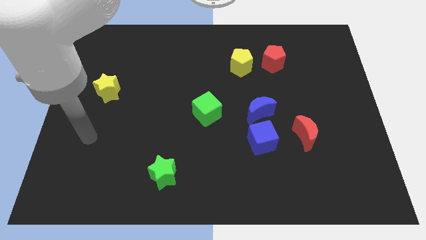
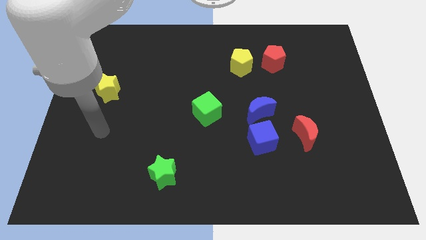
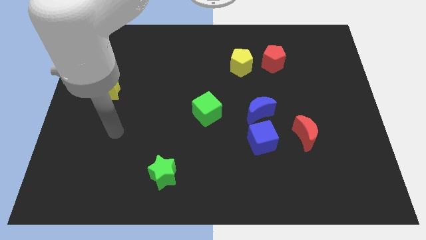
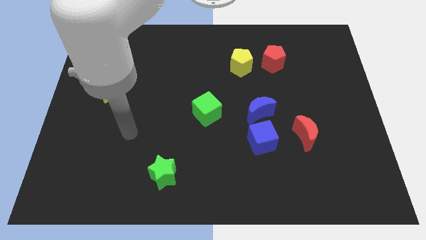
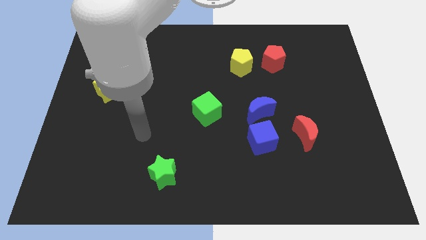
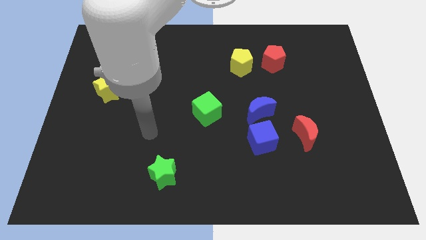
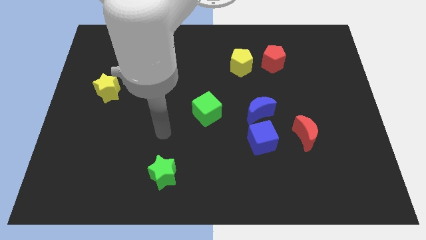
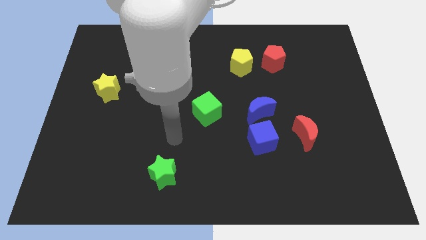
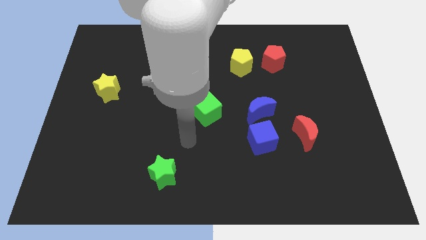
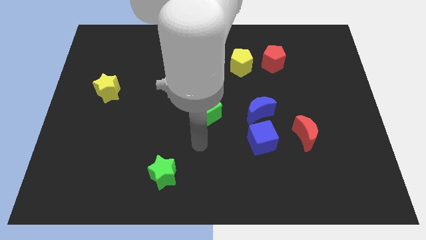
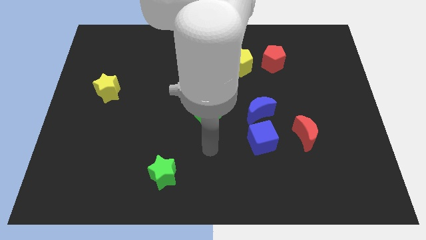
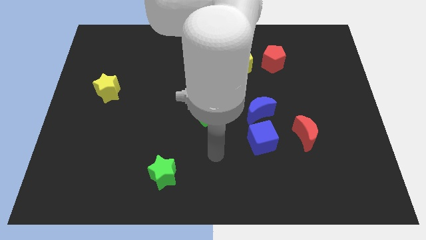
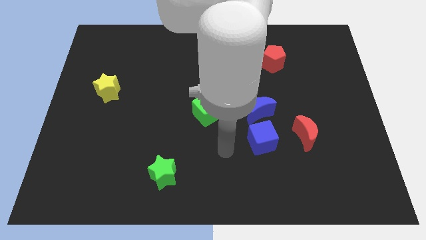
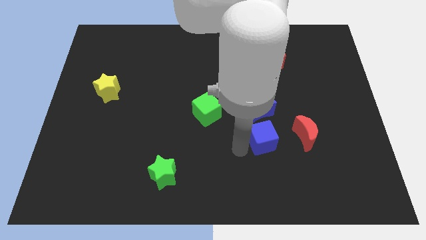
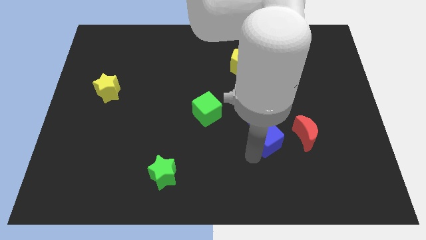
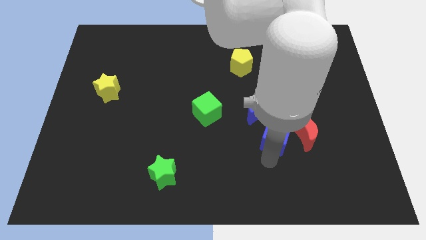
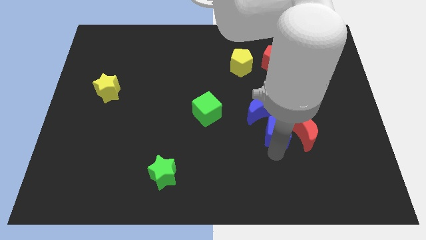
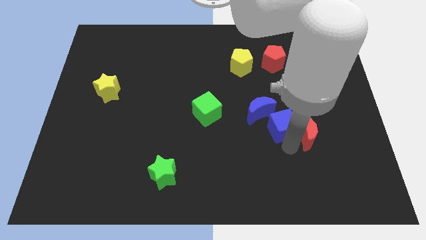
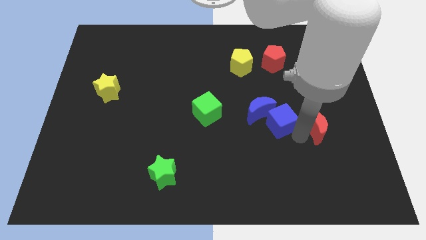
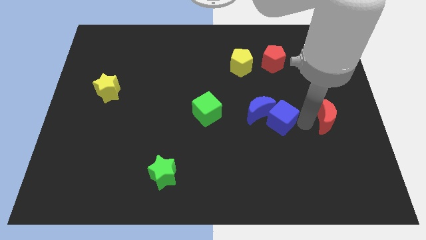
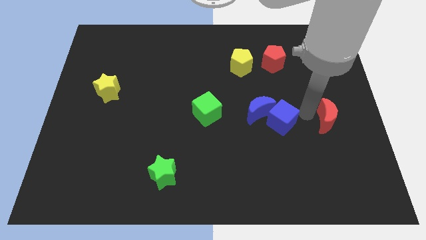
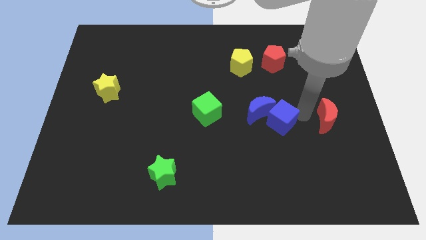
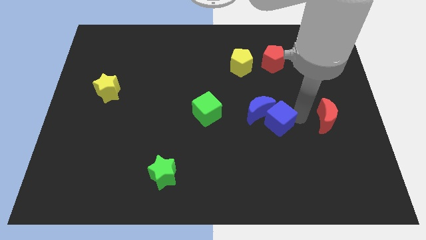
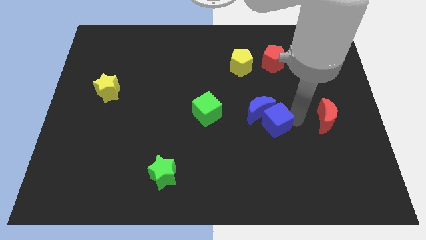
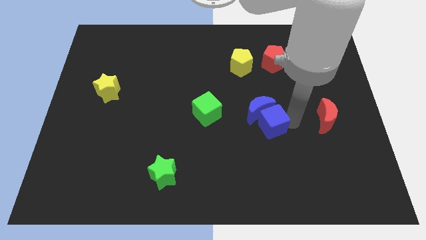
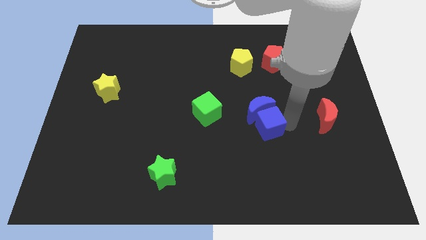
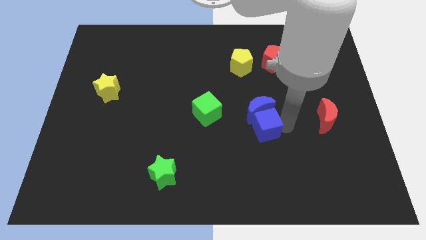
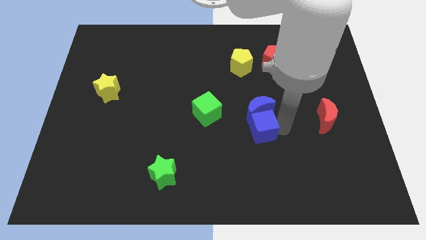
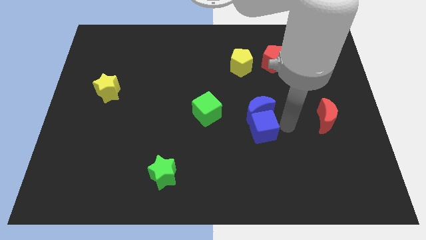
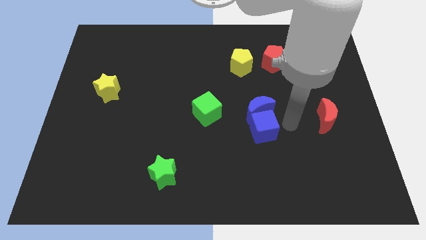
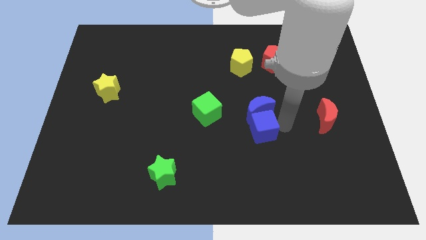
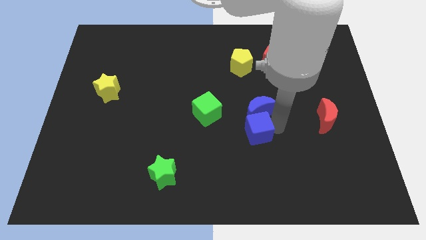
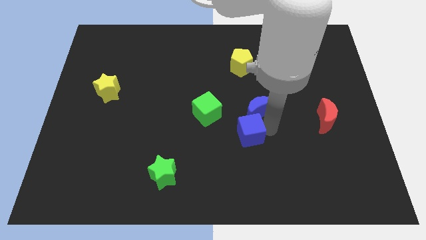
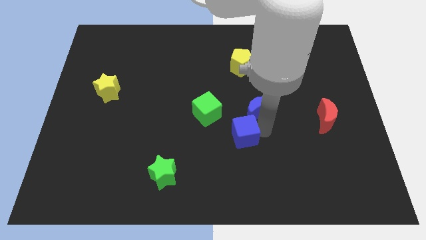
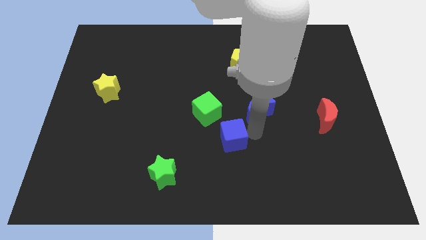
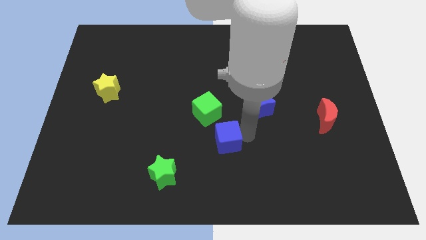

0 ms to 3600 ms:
slightly move the blue cube left

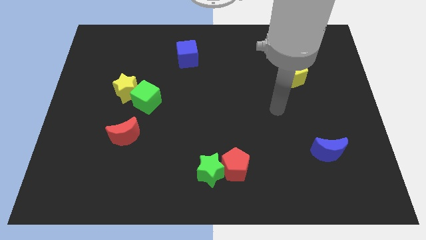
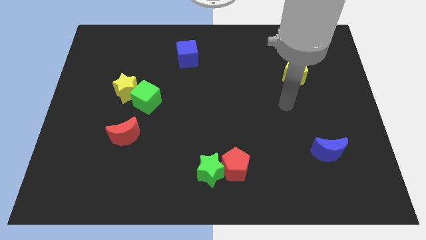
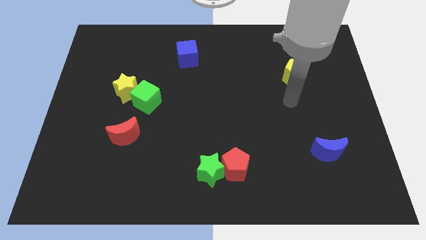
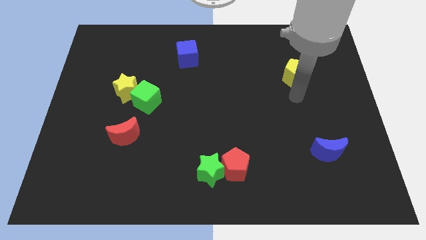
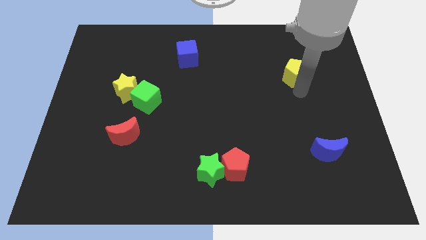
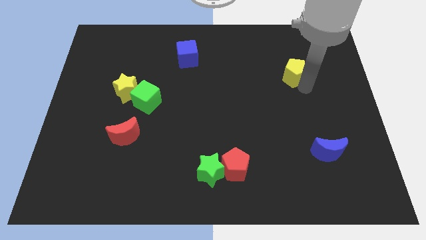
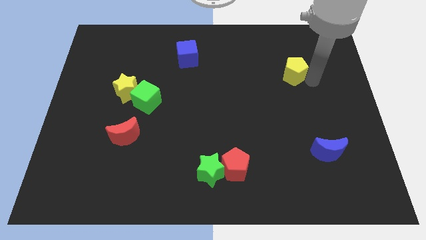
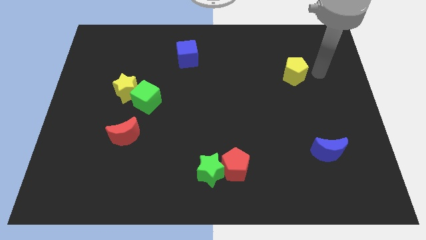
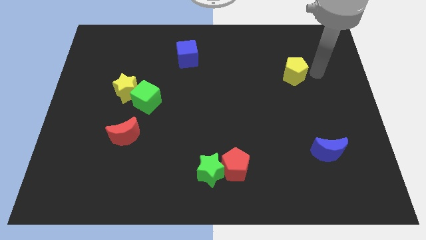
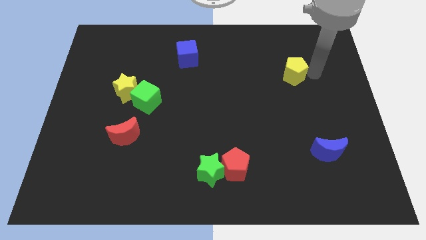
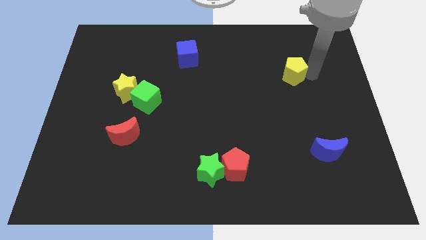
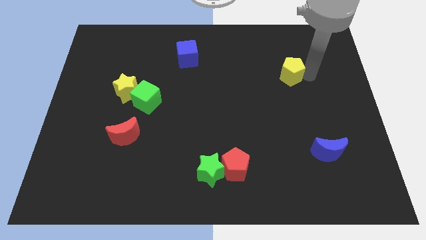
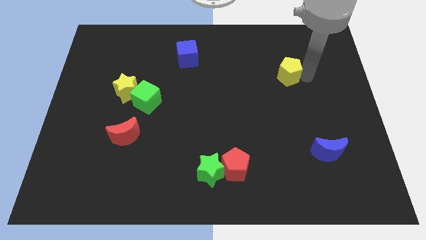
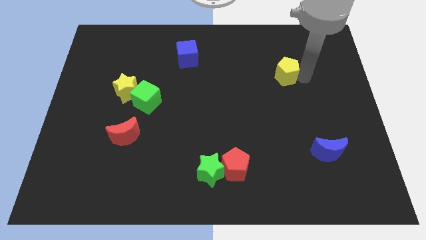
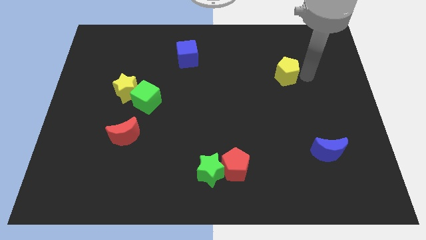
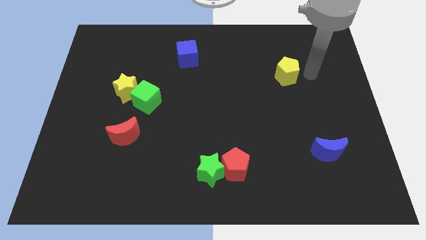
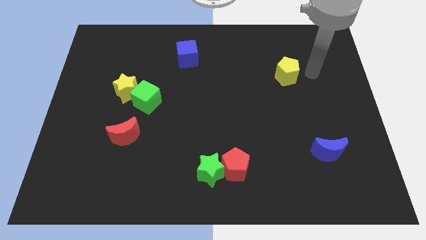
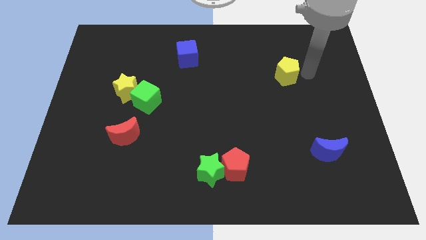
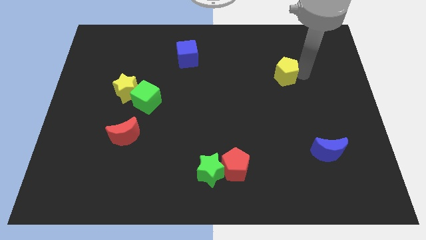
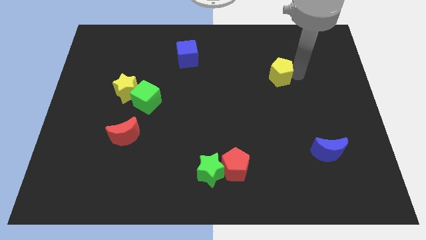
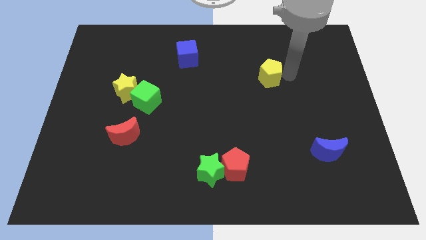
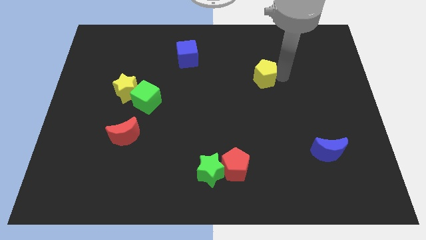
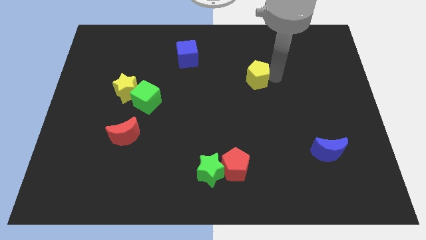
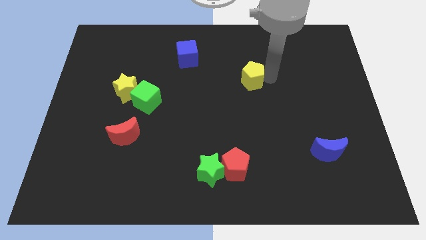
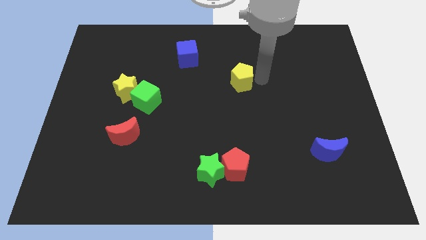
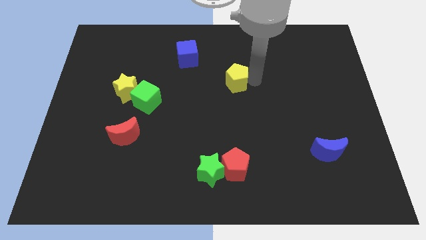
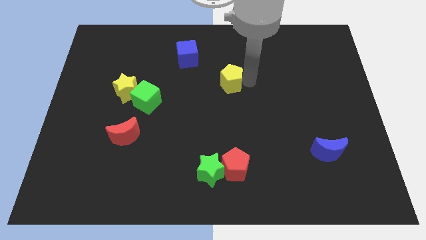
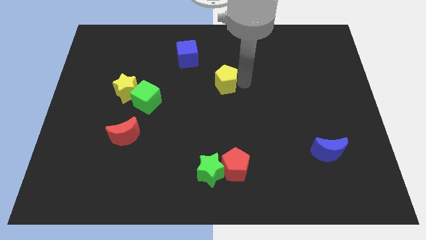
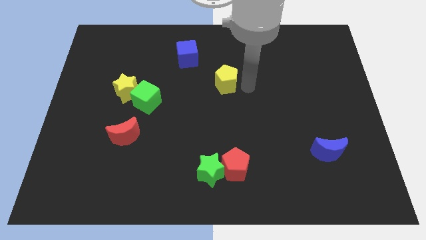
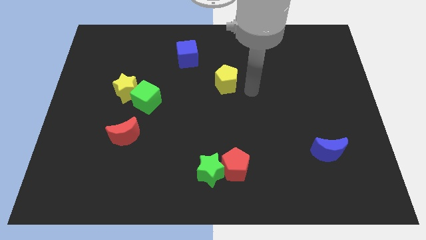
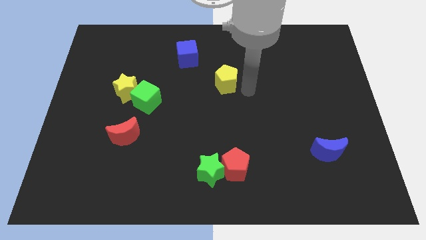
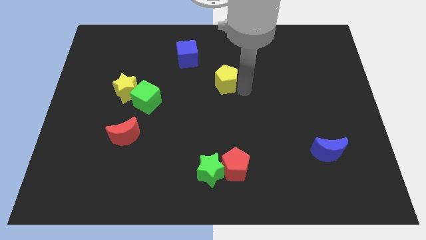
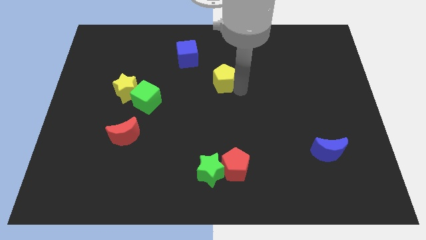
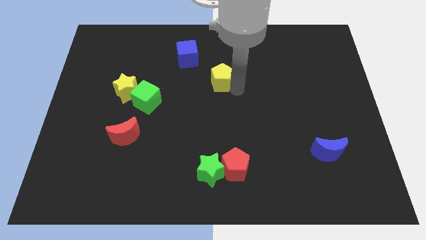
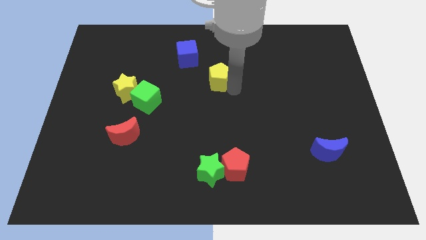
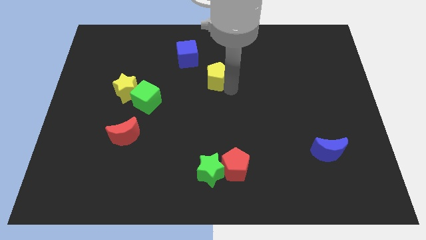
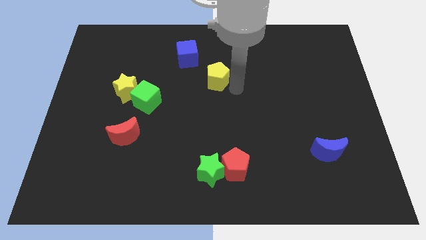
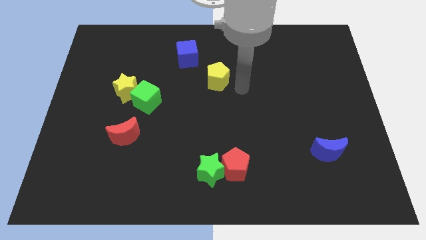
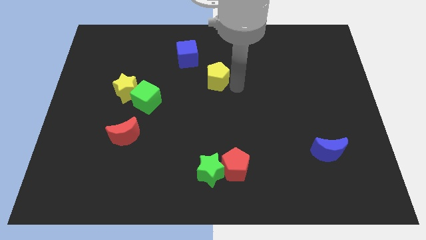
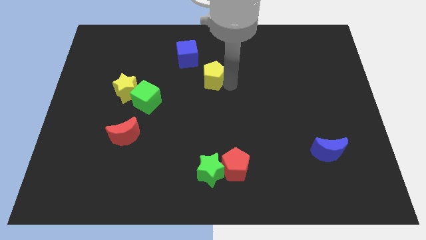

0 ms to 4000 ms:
move the yellow pentagon to the left
